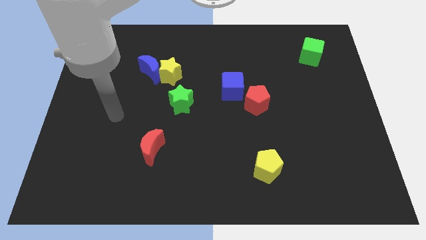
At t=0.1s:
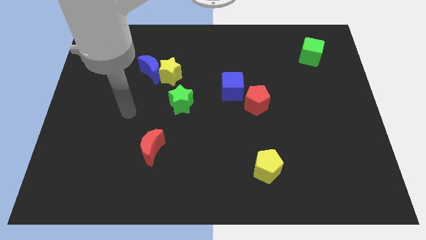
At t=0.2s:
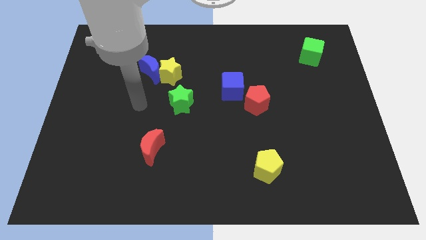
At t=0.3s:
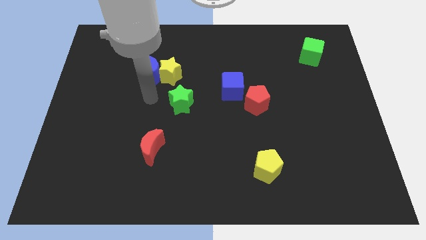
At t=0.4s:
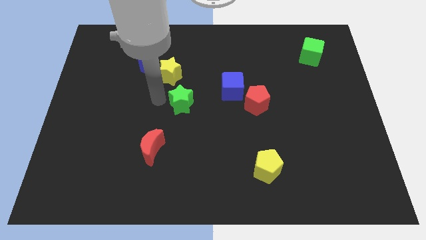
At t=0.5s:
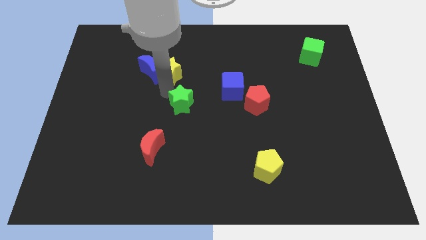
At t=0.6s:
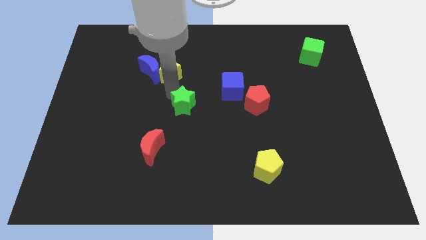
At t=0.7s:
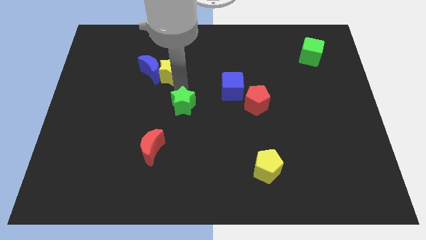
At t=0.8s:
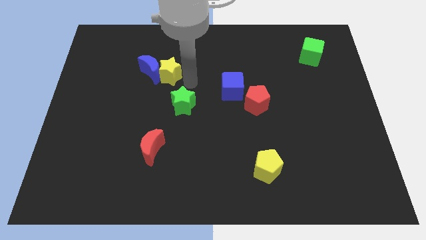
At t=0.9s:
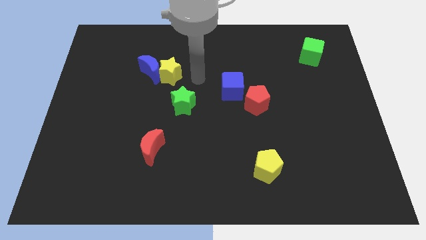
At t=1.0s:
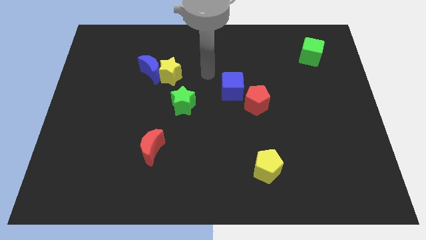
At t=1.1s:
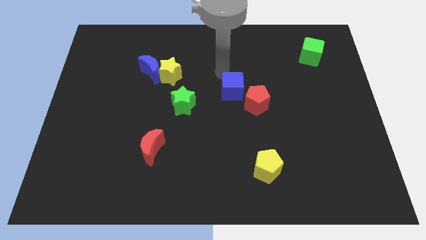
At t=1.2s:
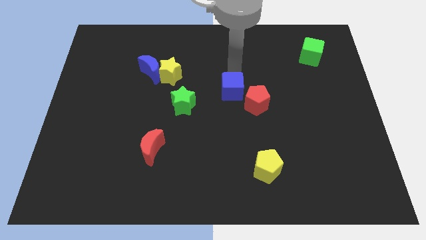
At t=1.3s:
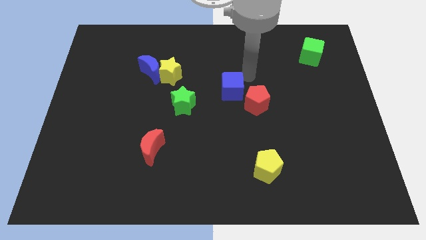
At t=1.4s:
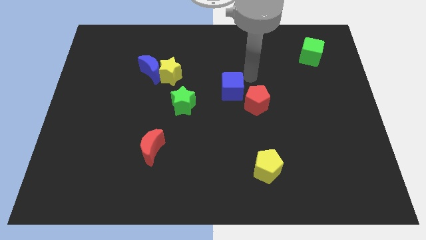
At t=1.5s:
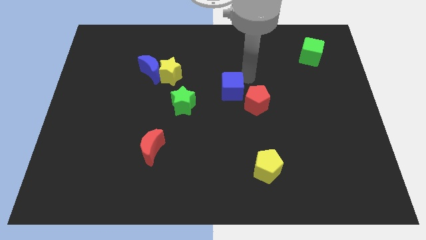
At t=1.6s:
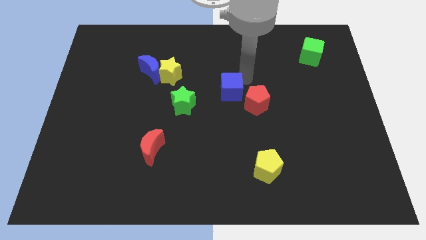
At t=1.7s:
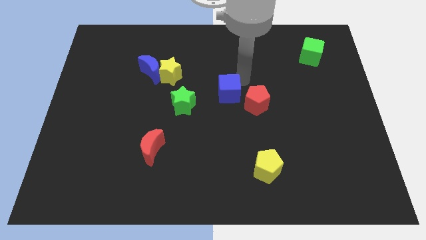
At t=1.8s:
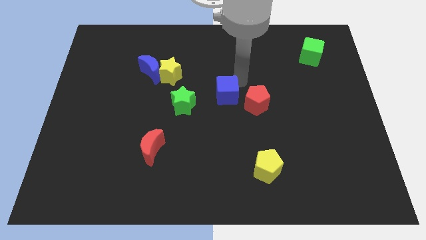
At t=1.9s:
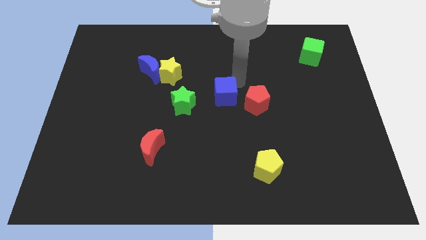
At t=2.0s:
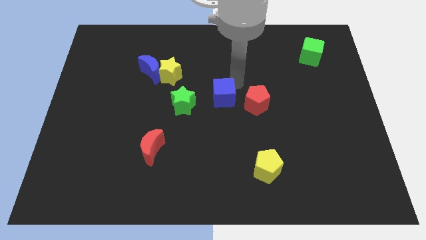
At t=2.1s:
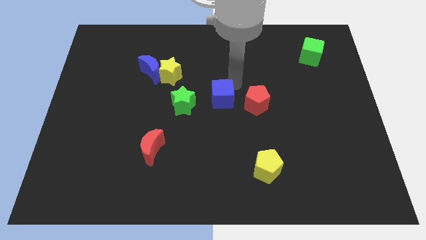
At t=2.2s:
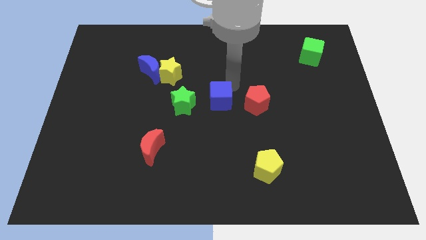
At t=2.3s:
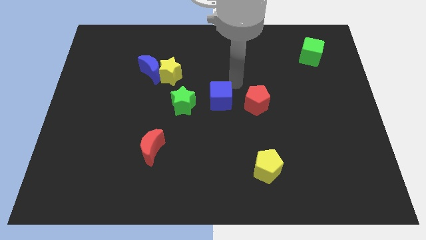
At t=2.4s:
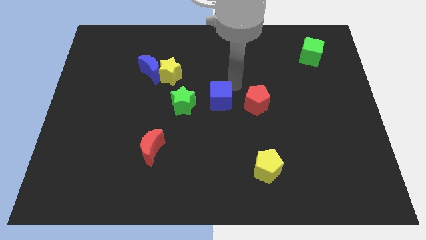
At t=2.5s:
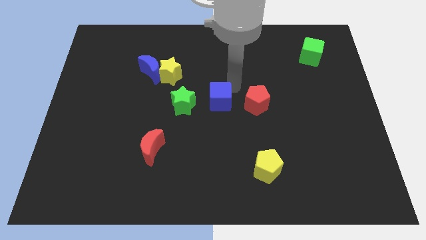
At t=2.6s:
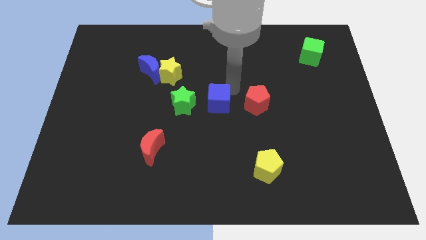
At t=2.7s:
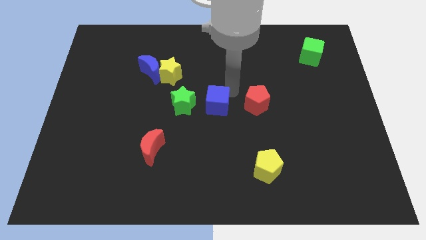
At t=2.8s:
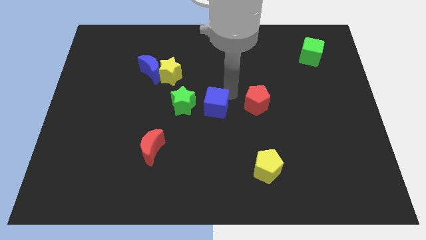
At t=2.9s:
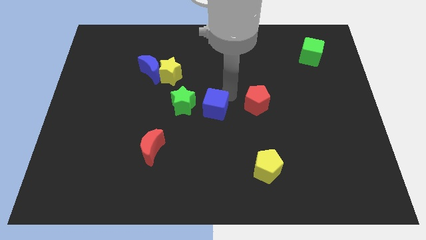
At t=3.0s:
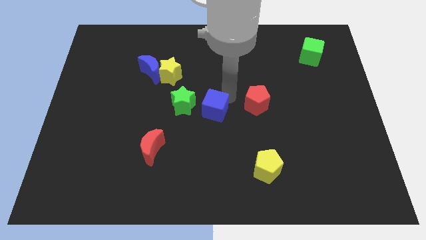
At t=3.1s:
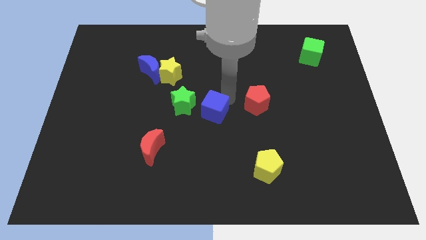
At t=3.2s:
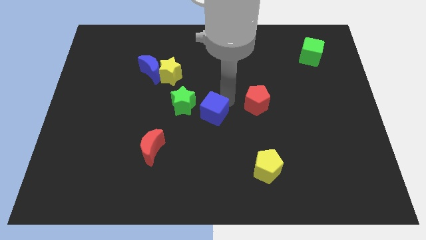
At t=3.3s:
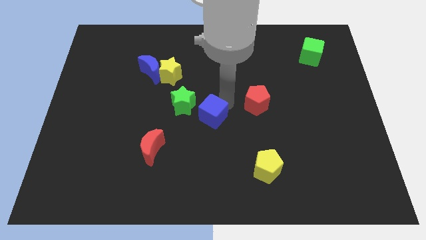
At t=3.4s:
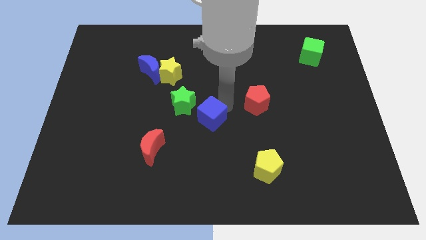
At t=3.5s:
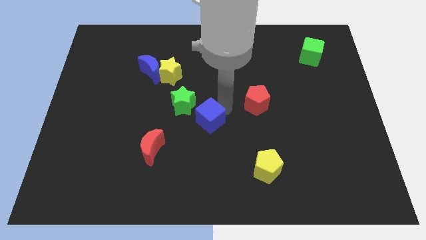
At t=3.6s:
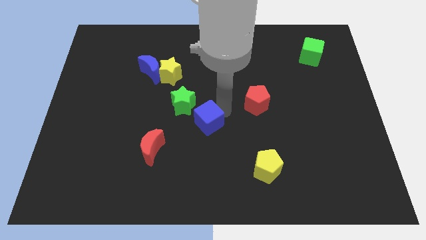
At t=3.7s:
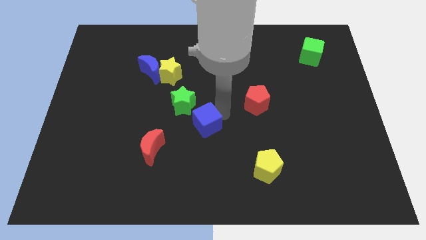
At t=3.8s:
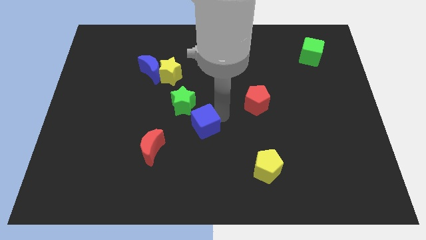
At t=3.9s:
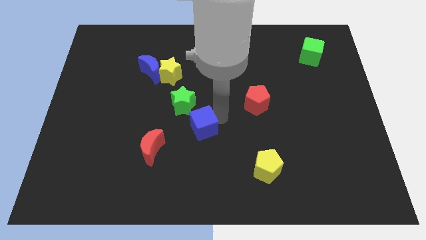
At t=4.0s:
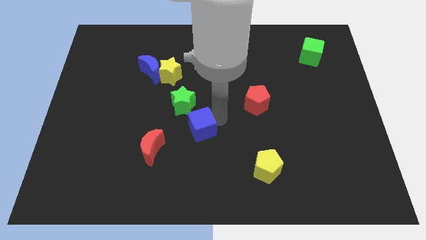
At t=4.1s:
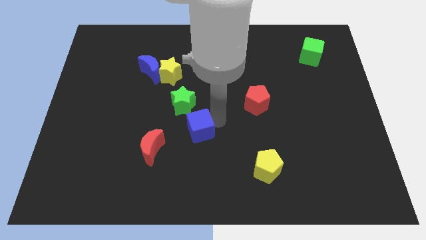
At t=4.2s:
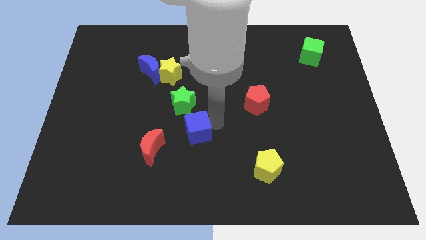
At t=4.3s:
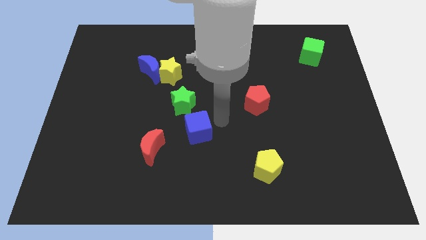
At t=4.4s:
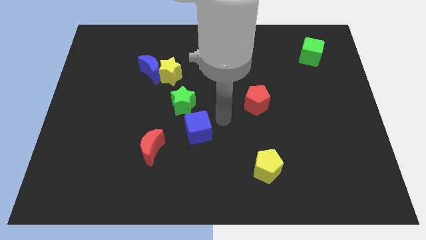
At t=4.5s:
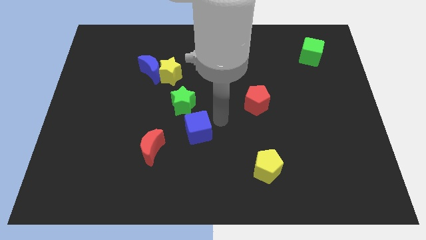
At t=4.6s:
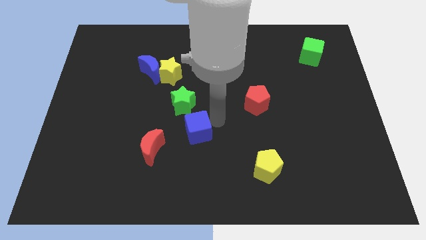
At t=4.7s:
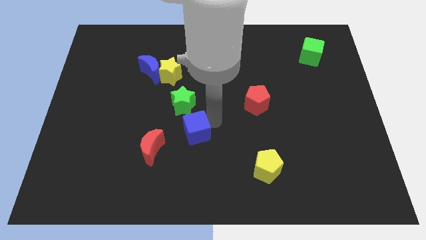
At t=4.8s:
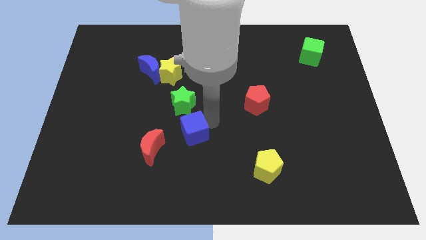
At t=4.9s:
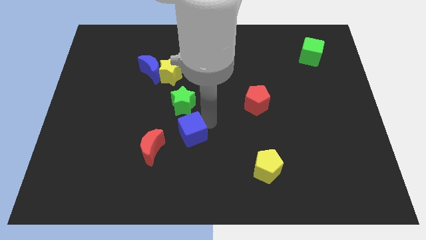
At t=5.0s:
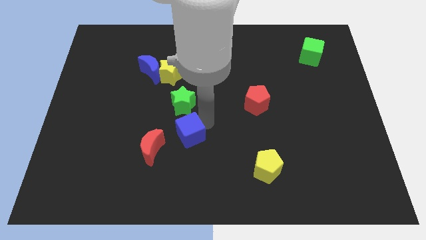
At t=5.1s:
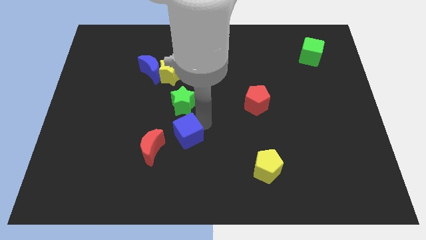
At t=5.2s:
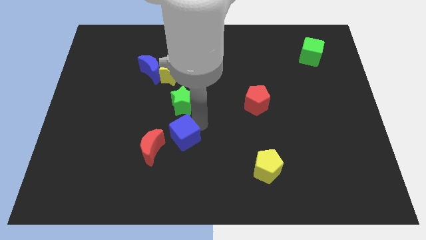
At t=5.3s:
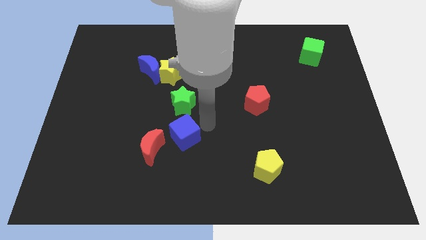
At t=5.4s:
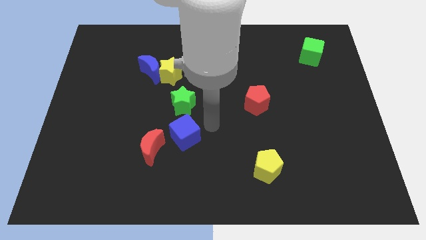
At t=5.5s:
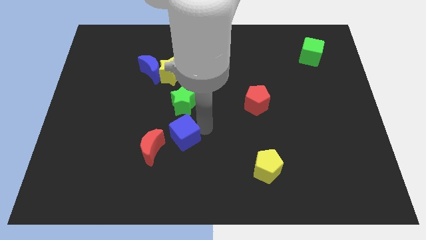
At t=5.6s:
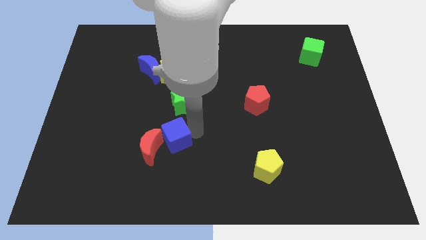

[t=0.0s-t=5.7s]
put the blue cube close to the red moon

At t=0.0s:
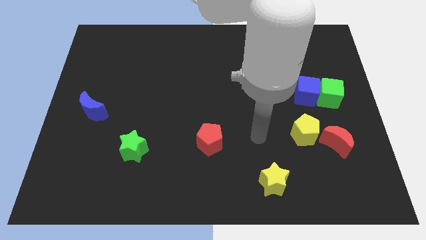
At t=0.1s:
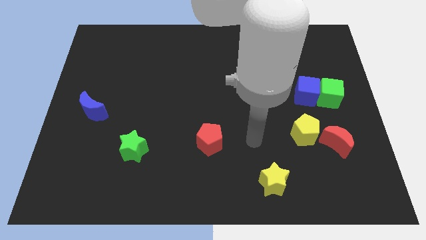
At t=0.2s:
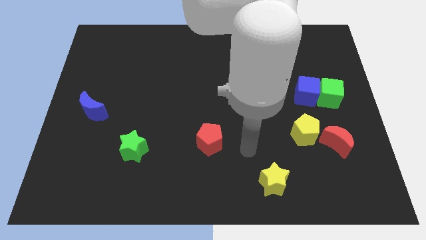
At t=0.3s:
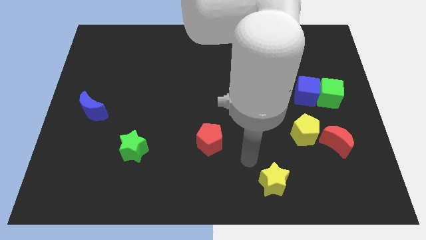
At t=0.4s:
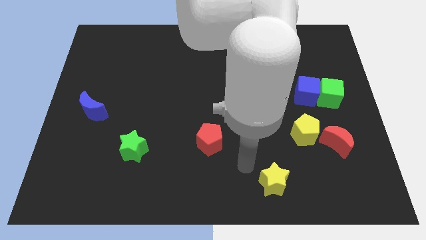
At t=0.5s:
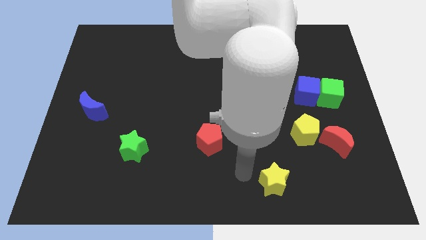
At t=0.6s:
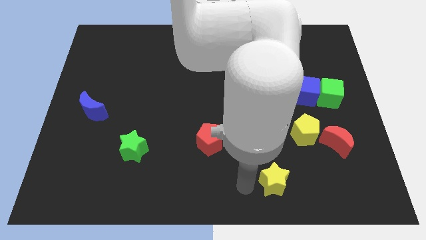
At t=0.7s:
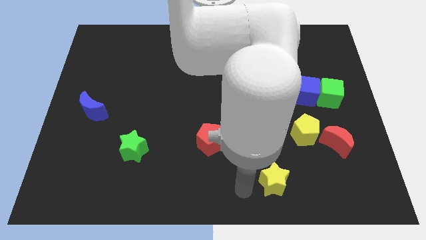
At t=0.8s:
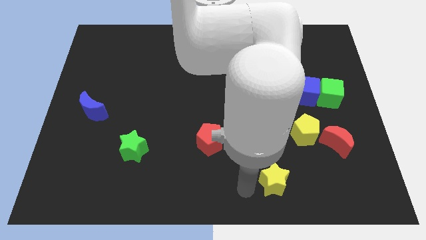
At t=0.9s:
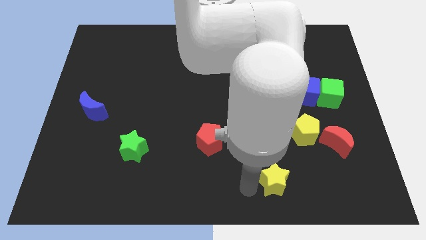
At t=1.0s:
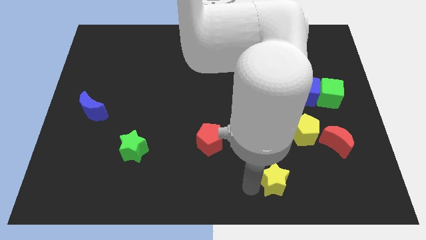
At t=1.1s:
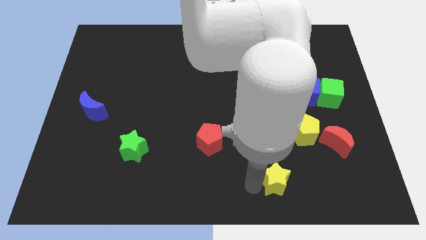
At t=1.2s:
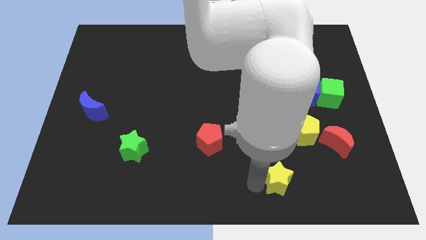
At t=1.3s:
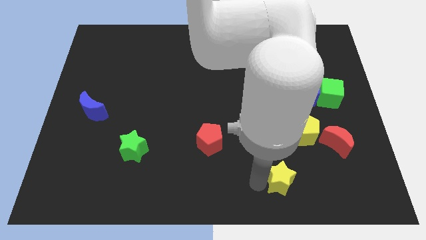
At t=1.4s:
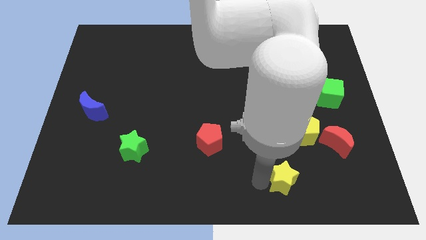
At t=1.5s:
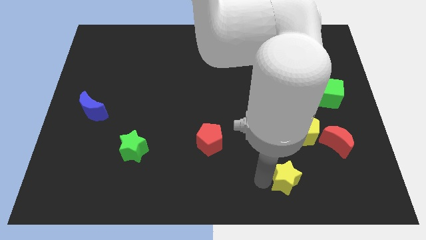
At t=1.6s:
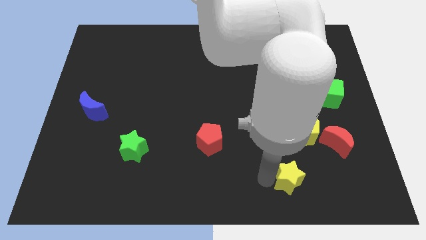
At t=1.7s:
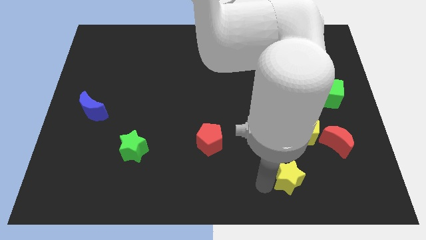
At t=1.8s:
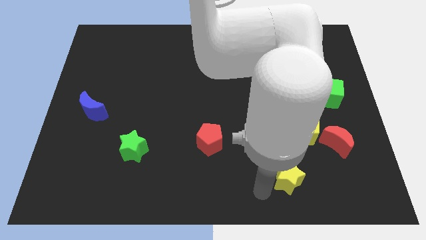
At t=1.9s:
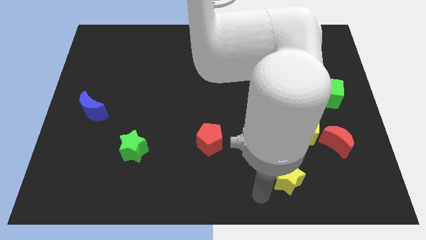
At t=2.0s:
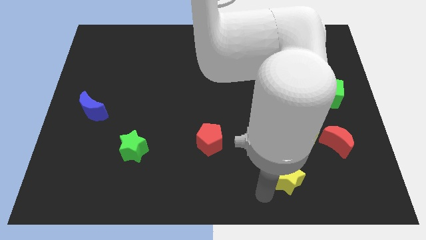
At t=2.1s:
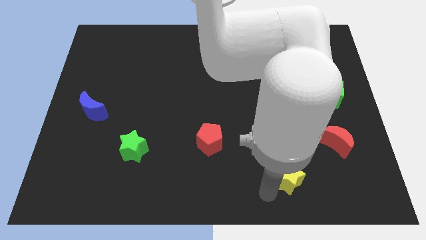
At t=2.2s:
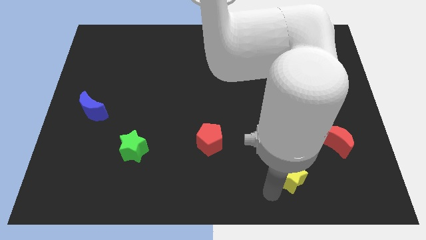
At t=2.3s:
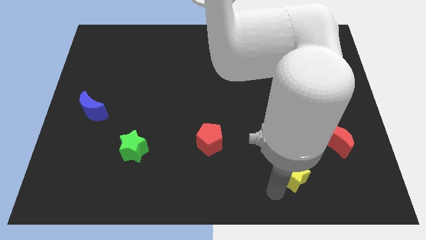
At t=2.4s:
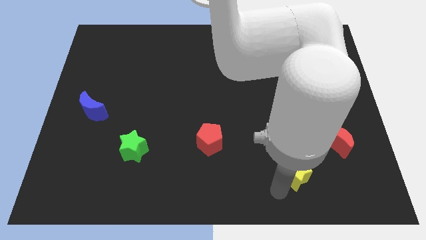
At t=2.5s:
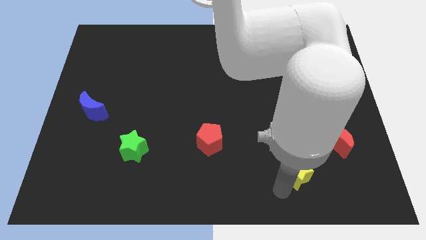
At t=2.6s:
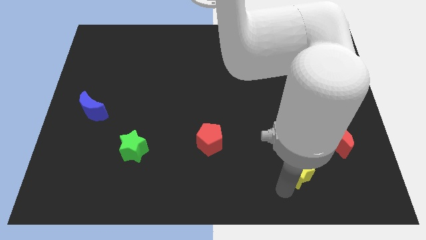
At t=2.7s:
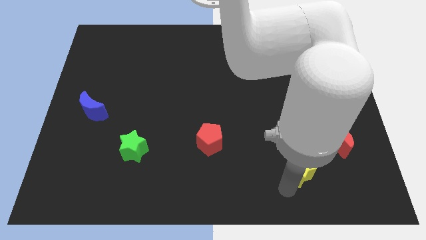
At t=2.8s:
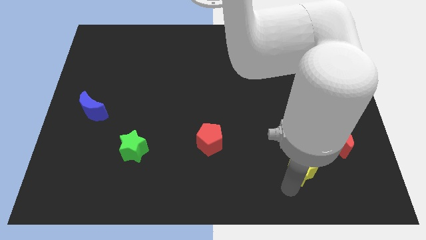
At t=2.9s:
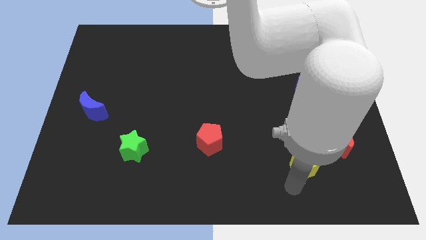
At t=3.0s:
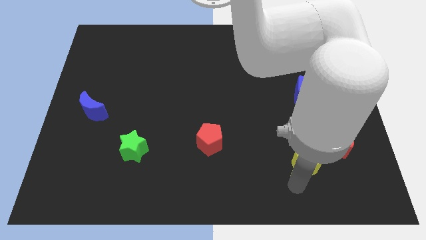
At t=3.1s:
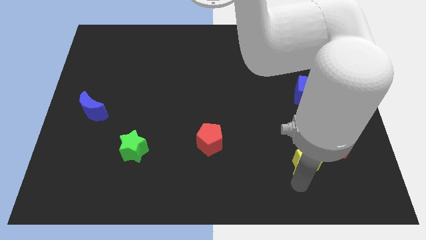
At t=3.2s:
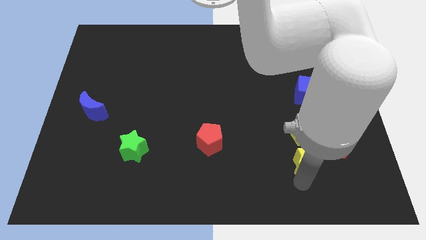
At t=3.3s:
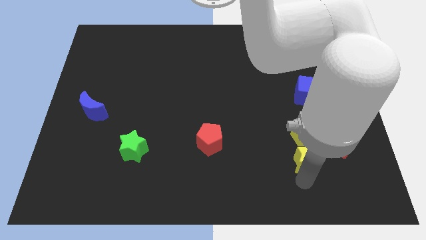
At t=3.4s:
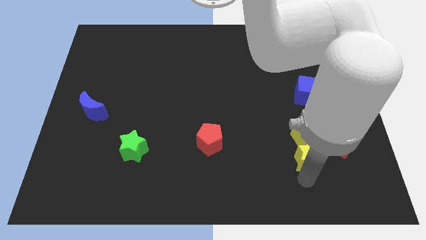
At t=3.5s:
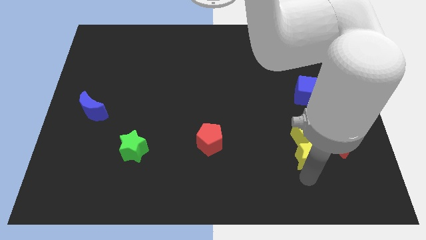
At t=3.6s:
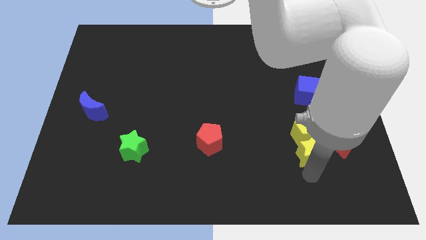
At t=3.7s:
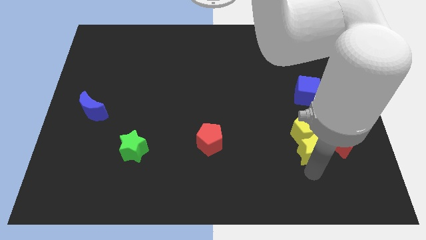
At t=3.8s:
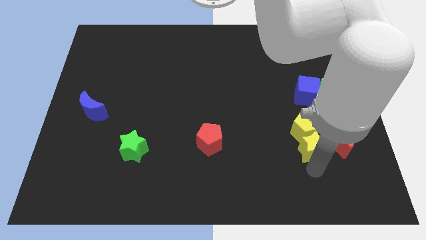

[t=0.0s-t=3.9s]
put the yellow star close to the red moon
